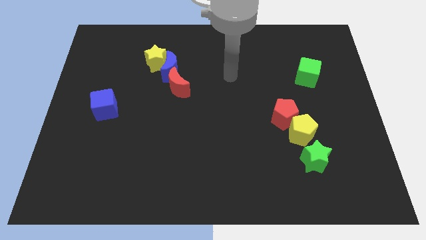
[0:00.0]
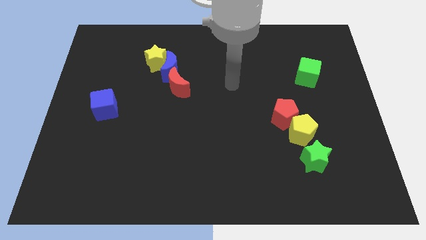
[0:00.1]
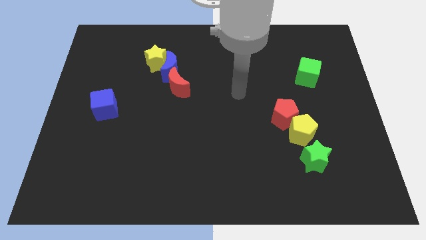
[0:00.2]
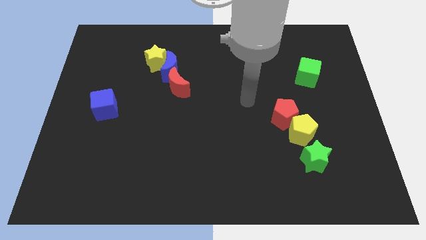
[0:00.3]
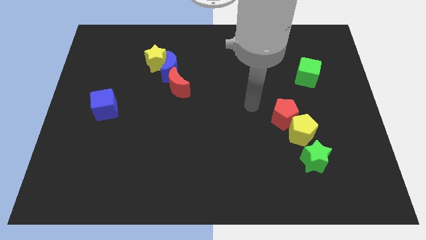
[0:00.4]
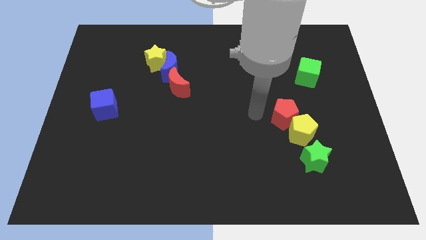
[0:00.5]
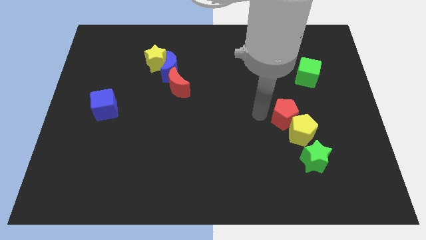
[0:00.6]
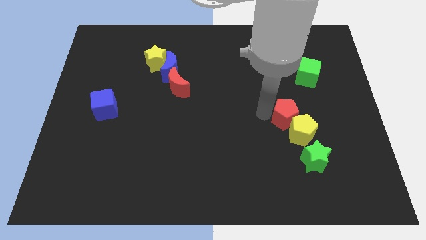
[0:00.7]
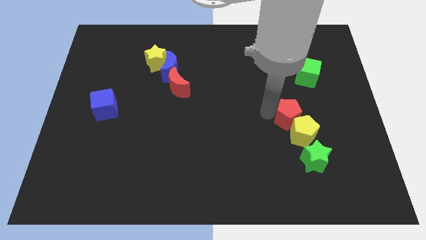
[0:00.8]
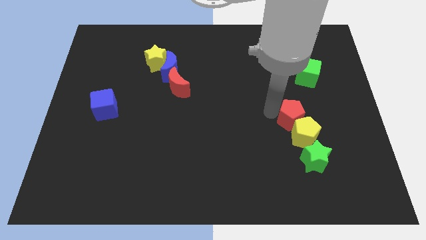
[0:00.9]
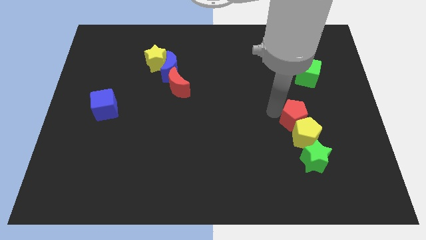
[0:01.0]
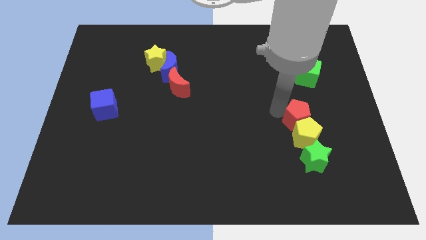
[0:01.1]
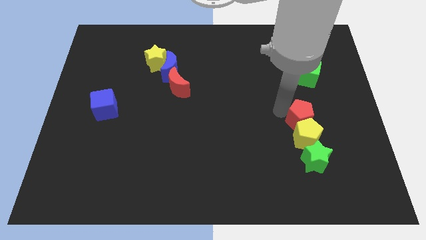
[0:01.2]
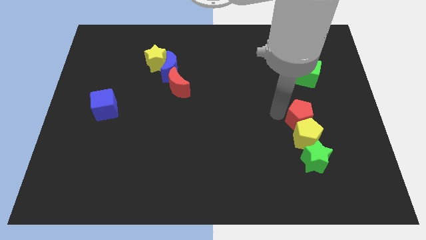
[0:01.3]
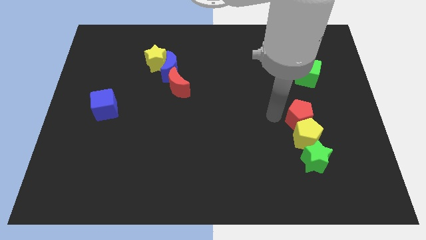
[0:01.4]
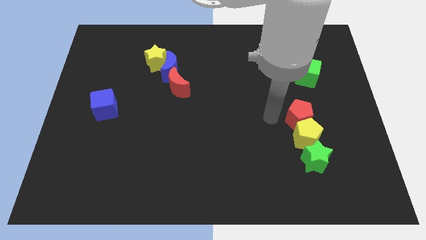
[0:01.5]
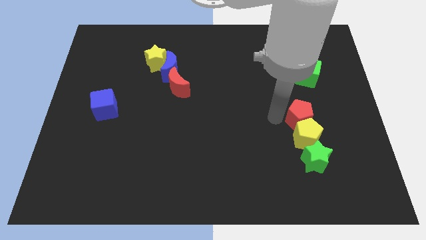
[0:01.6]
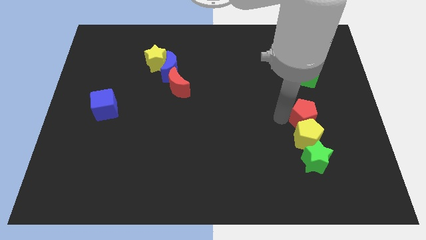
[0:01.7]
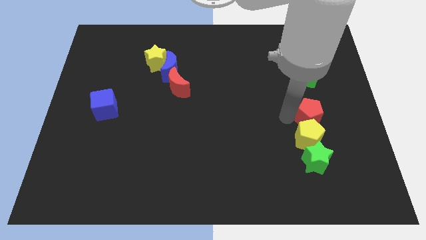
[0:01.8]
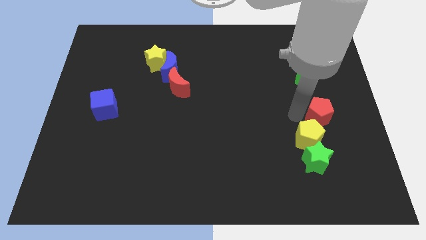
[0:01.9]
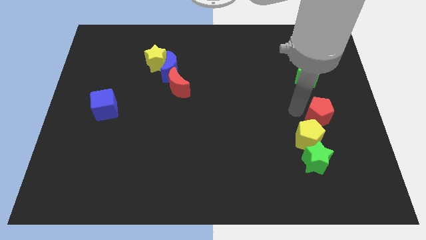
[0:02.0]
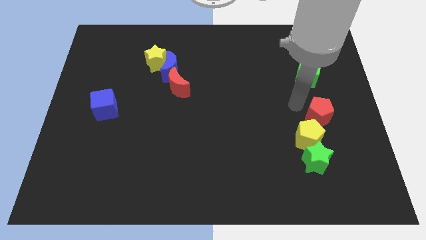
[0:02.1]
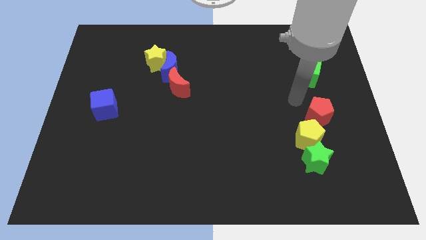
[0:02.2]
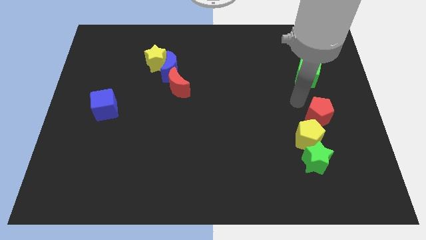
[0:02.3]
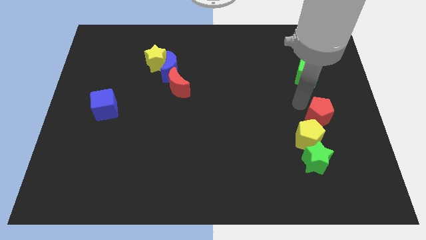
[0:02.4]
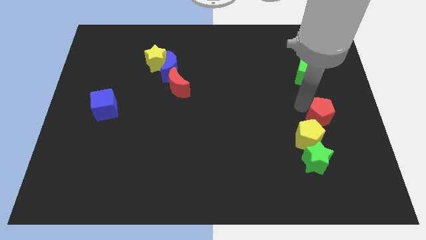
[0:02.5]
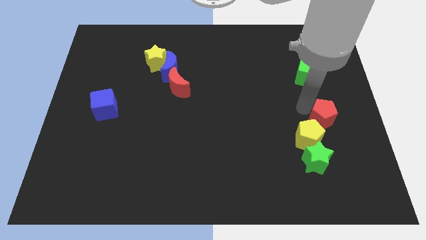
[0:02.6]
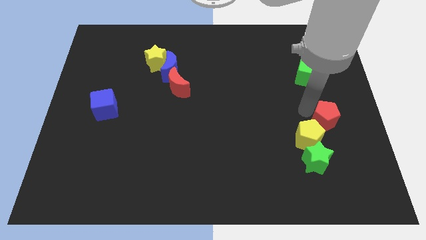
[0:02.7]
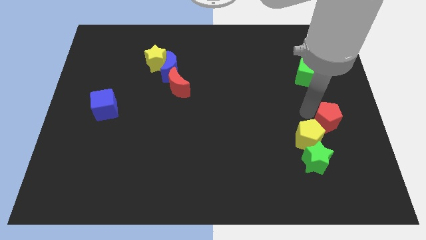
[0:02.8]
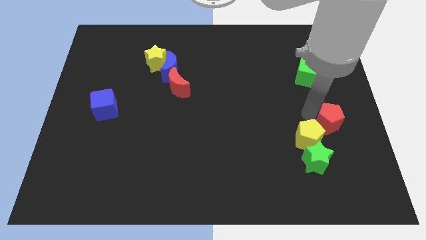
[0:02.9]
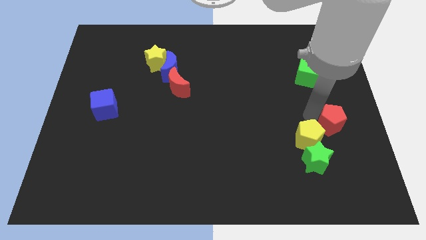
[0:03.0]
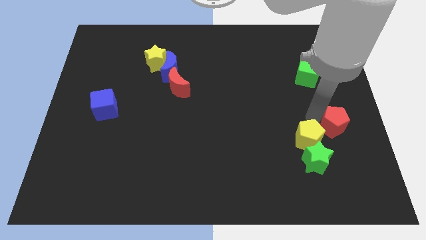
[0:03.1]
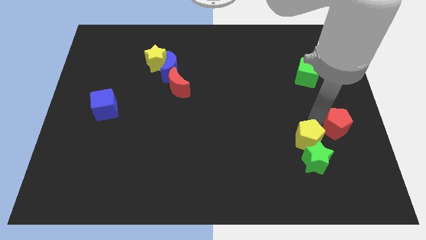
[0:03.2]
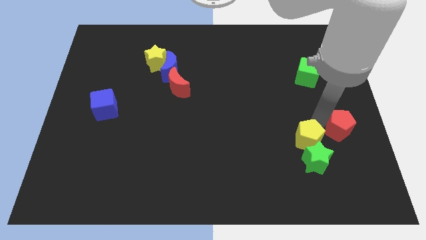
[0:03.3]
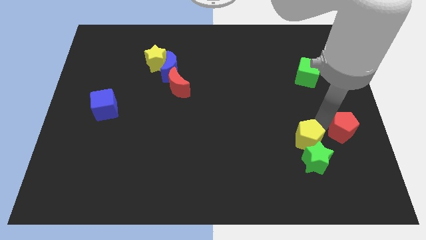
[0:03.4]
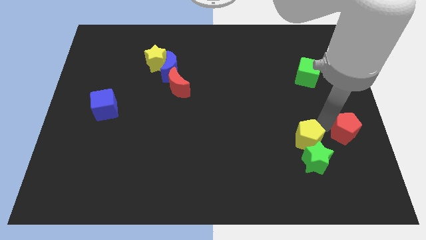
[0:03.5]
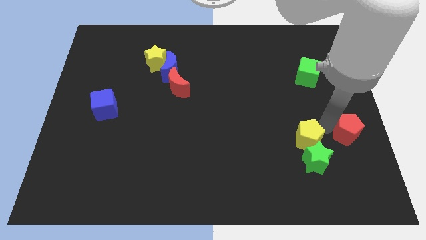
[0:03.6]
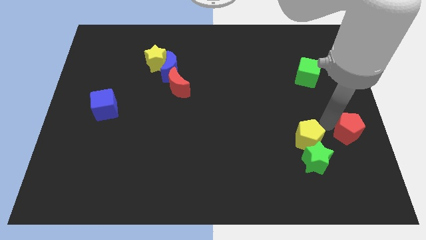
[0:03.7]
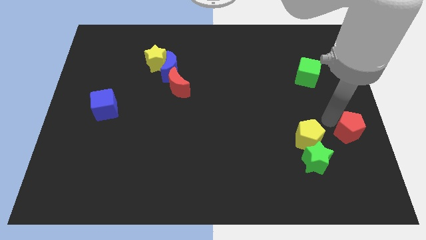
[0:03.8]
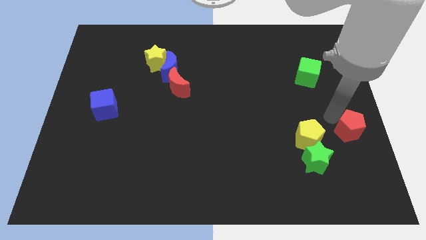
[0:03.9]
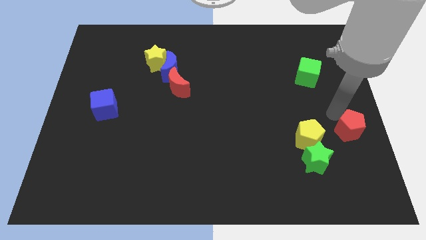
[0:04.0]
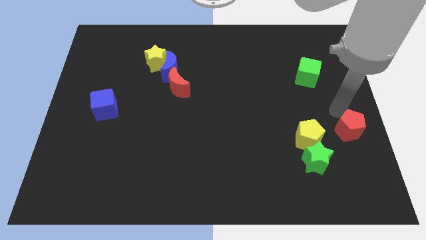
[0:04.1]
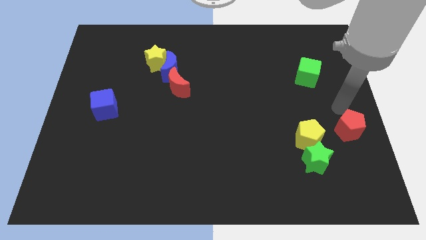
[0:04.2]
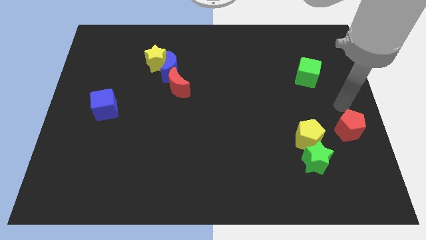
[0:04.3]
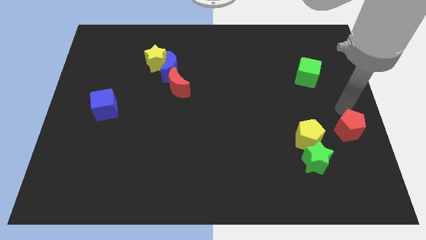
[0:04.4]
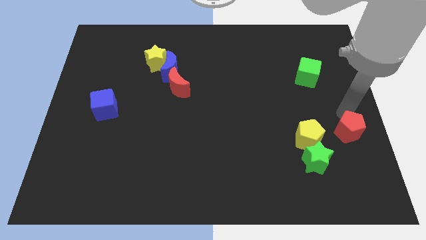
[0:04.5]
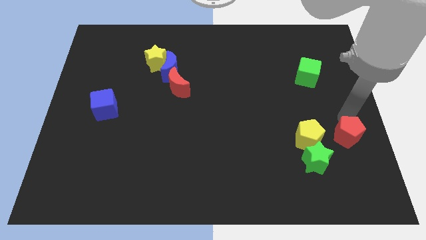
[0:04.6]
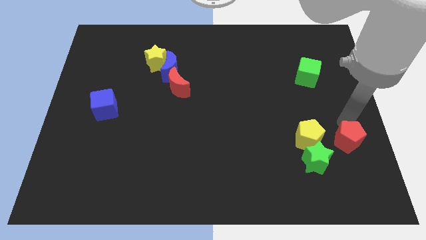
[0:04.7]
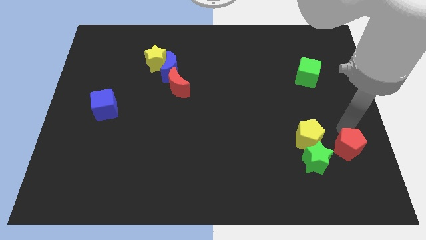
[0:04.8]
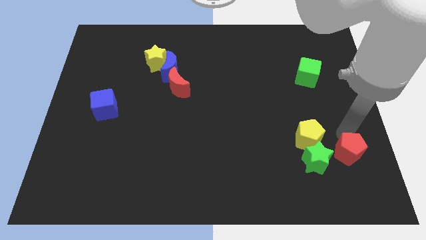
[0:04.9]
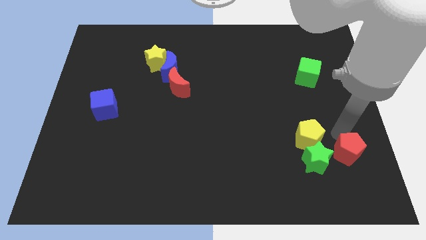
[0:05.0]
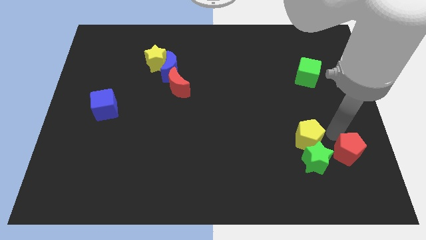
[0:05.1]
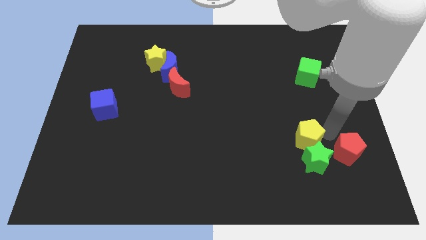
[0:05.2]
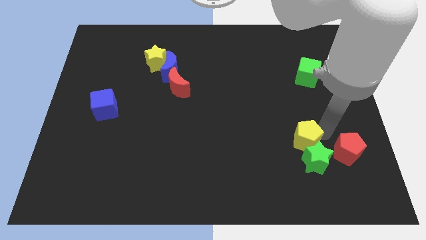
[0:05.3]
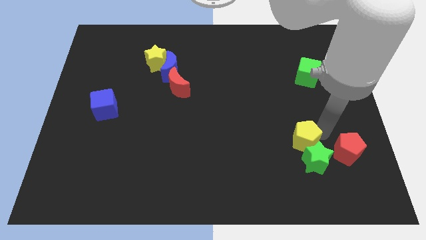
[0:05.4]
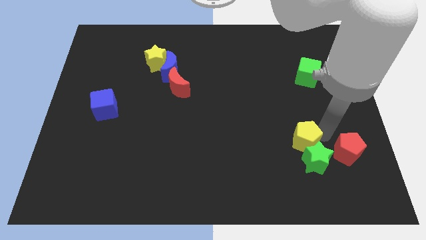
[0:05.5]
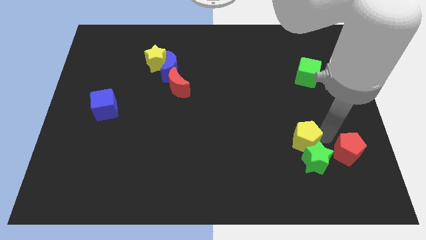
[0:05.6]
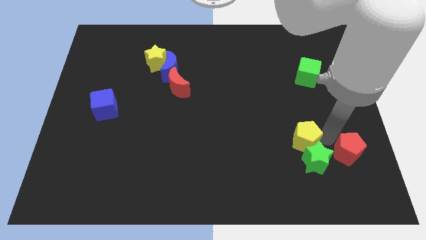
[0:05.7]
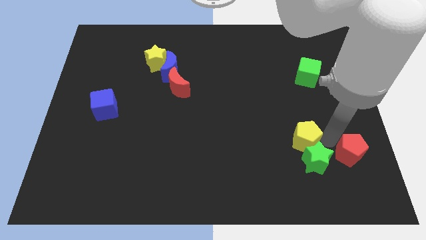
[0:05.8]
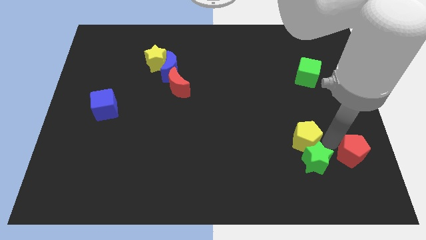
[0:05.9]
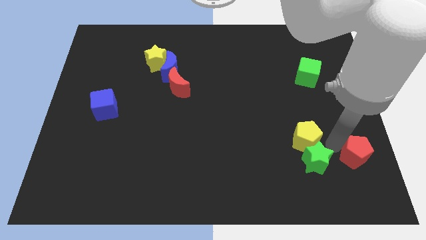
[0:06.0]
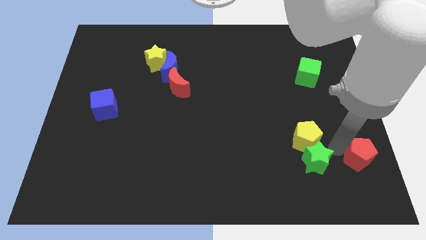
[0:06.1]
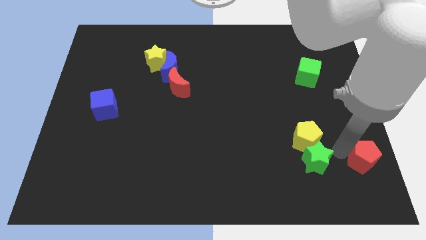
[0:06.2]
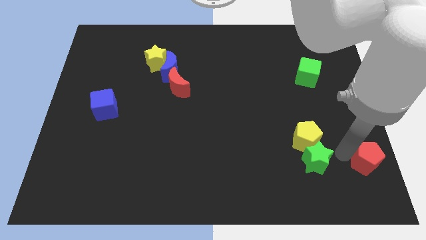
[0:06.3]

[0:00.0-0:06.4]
put the red pentagon to the bottom right of the board

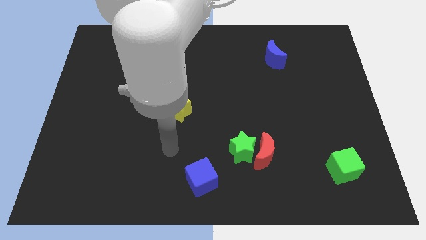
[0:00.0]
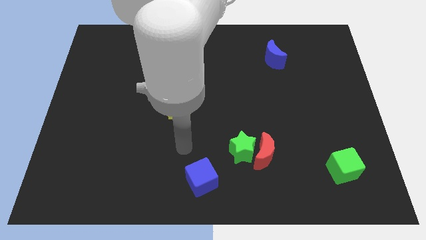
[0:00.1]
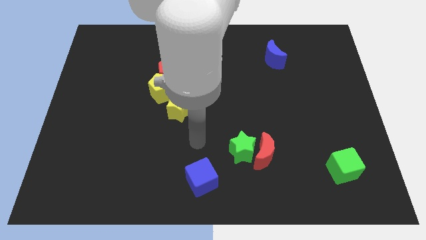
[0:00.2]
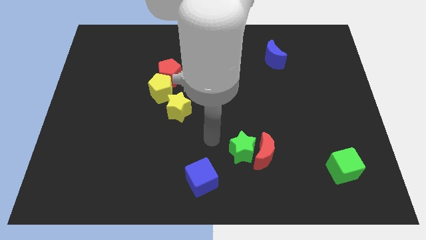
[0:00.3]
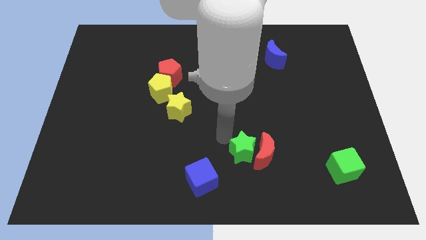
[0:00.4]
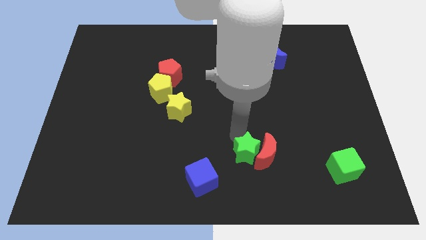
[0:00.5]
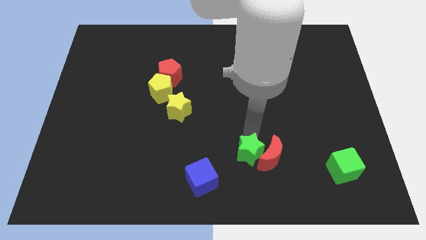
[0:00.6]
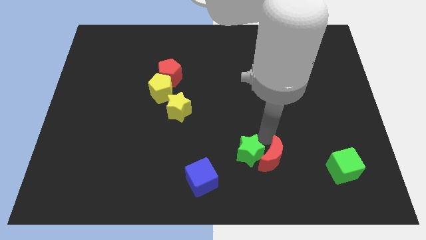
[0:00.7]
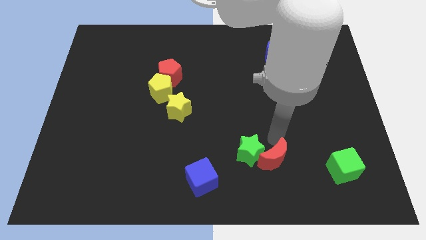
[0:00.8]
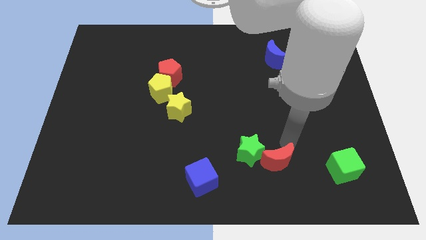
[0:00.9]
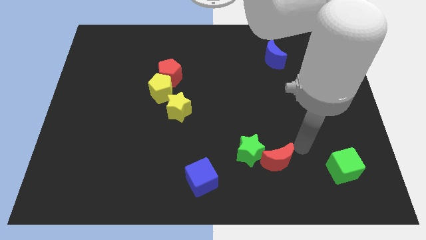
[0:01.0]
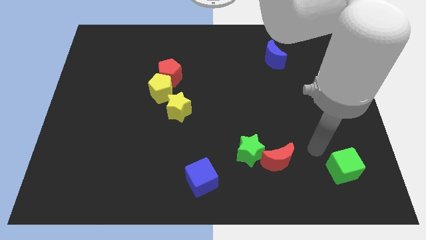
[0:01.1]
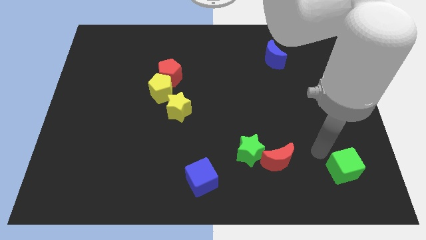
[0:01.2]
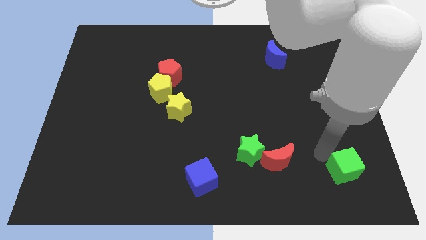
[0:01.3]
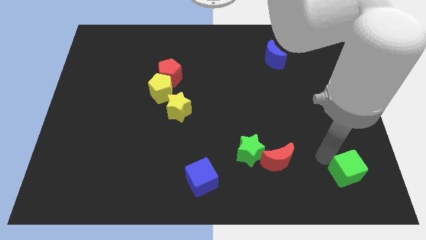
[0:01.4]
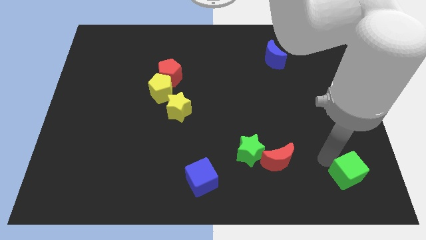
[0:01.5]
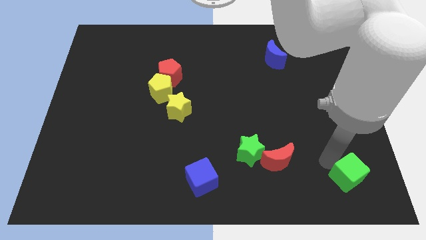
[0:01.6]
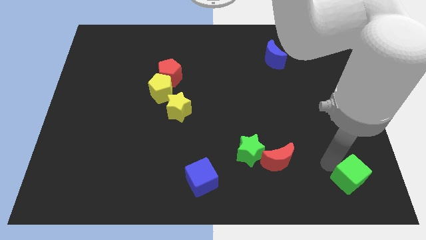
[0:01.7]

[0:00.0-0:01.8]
slide the green cube to the bottom right
